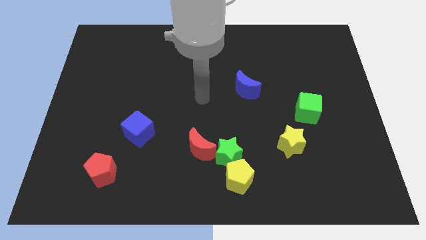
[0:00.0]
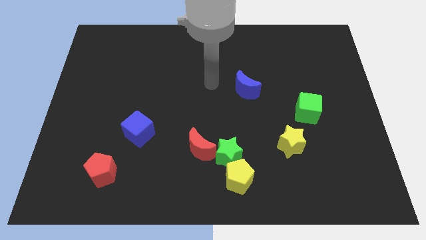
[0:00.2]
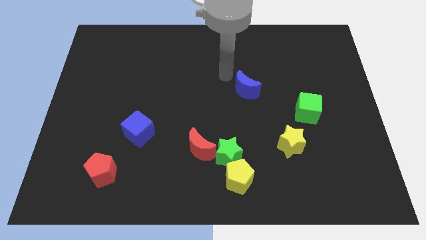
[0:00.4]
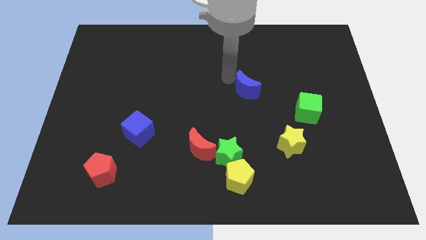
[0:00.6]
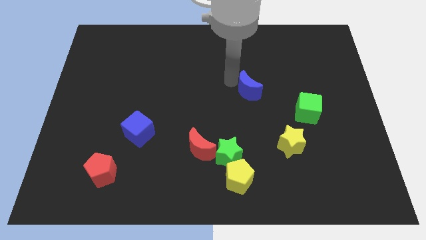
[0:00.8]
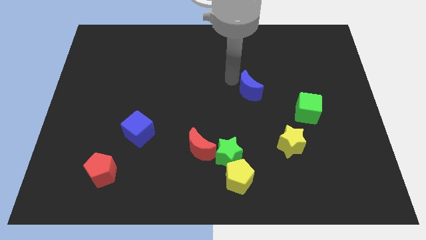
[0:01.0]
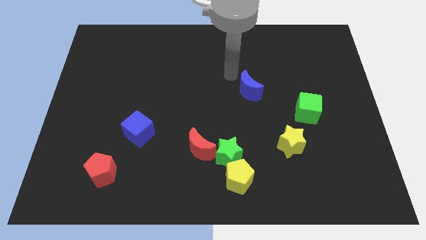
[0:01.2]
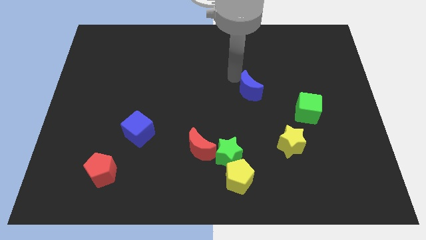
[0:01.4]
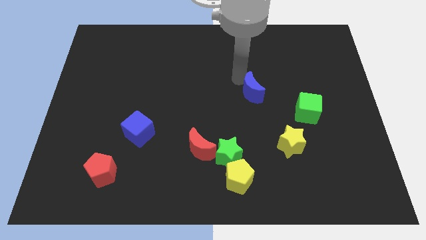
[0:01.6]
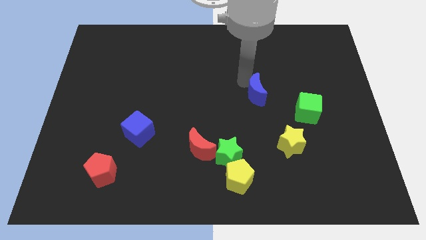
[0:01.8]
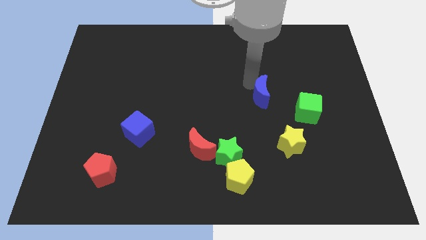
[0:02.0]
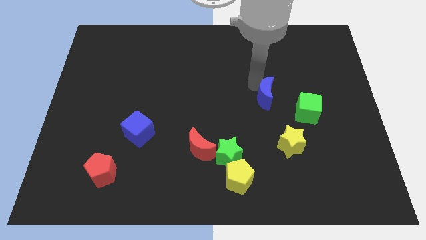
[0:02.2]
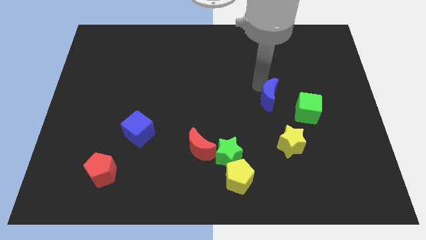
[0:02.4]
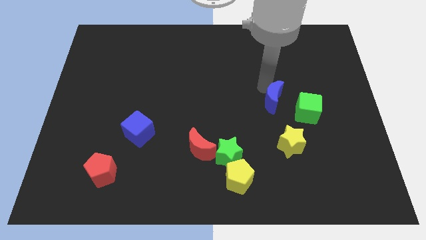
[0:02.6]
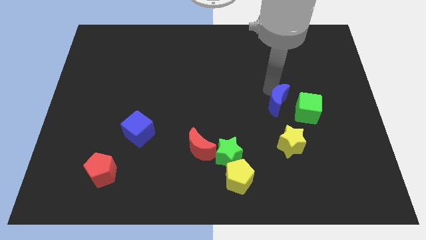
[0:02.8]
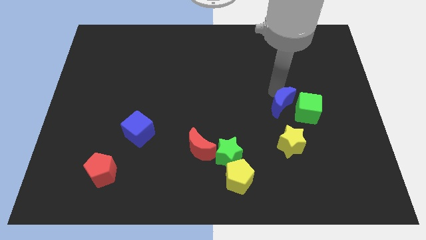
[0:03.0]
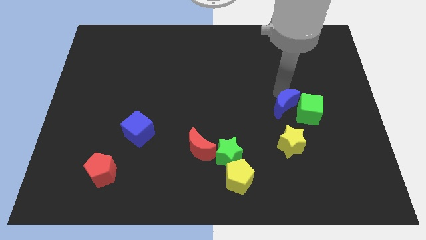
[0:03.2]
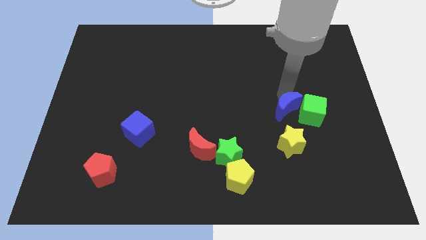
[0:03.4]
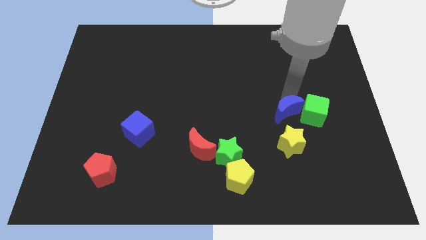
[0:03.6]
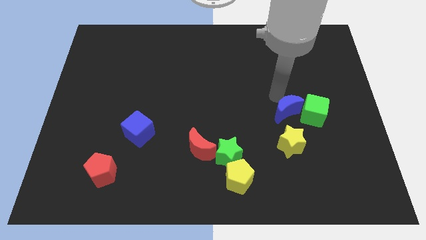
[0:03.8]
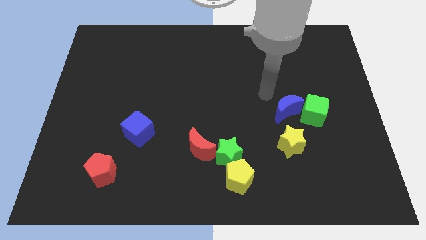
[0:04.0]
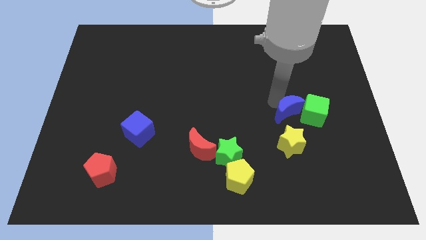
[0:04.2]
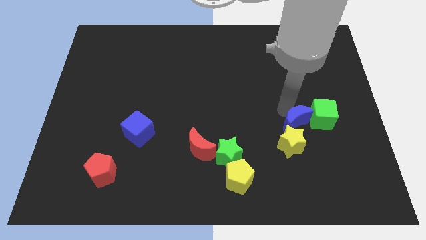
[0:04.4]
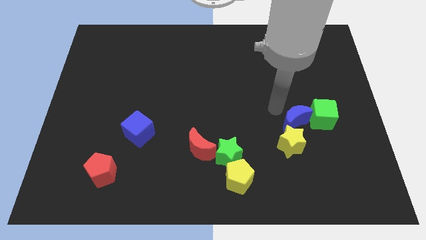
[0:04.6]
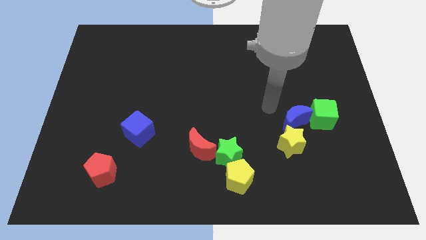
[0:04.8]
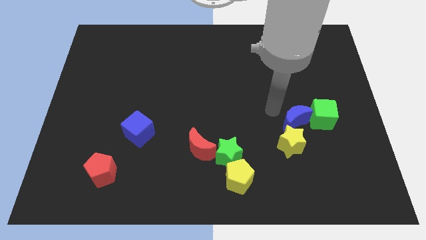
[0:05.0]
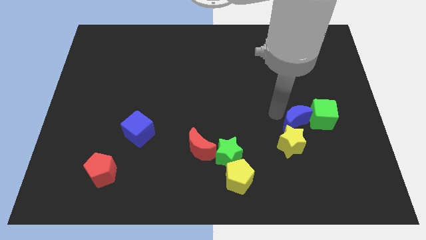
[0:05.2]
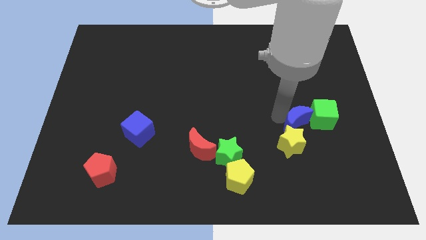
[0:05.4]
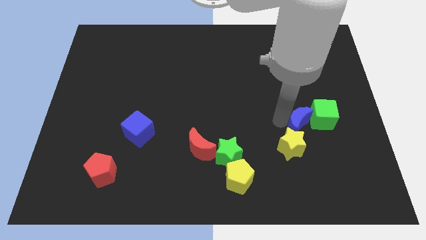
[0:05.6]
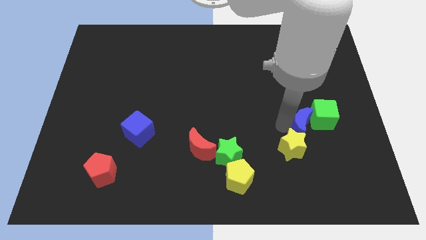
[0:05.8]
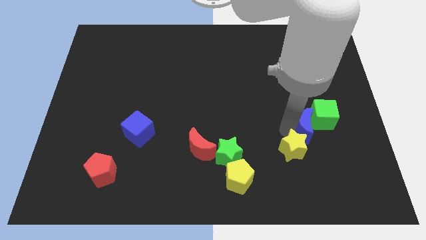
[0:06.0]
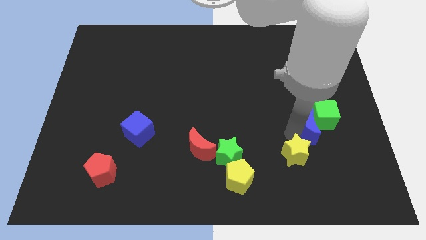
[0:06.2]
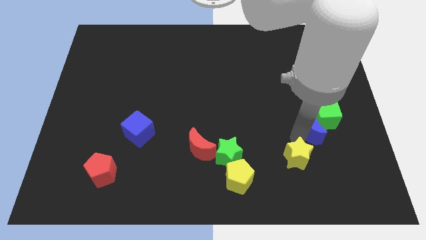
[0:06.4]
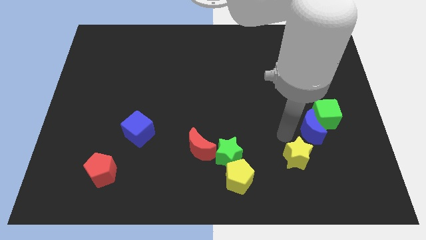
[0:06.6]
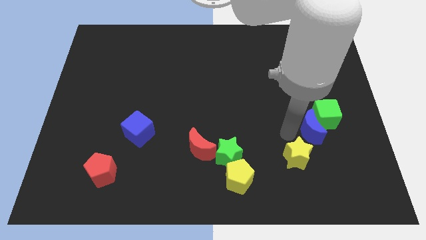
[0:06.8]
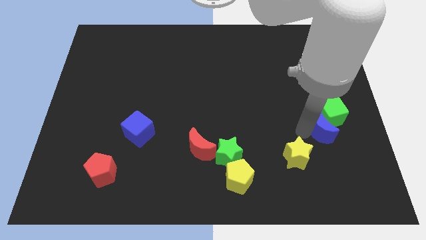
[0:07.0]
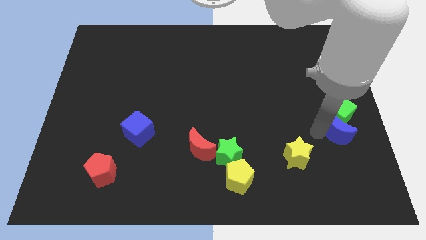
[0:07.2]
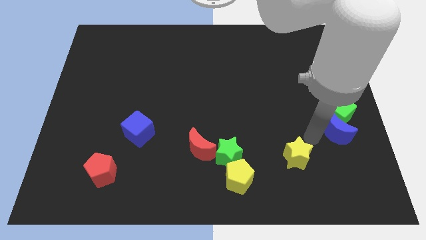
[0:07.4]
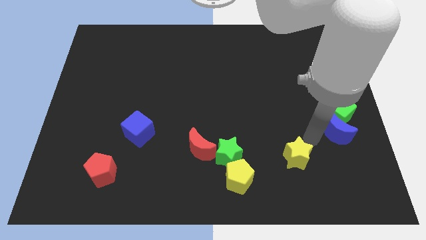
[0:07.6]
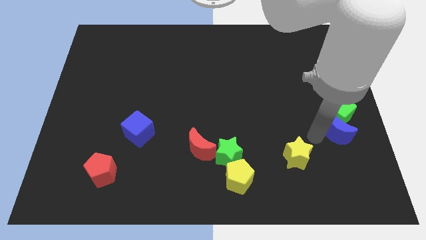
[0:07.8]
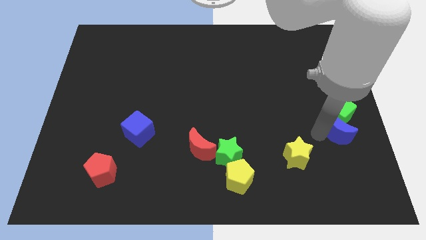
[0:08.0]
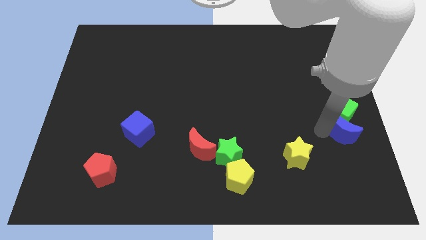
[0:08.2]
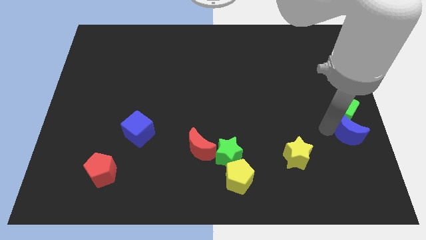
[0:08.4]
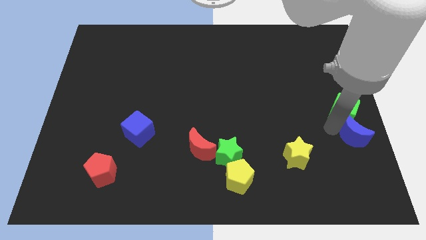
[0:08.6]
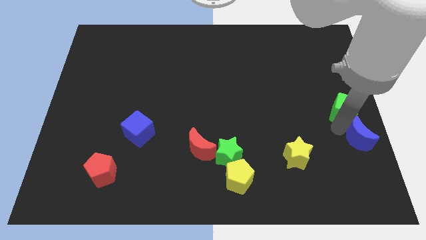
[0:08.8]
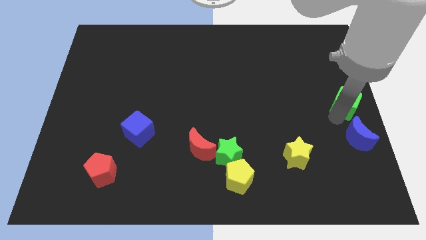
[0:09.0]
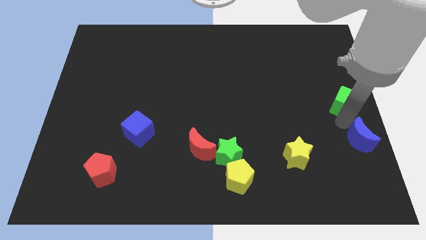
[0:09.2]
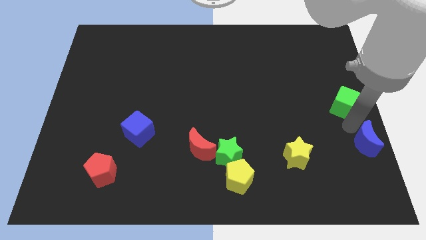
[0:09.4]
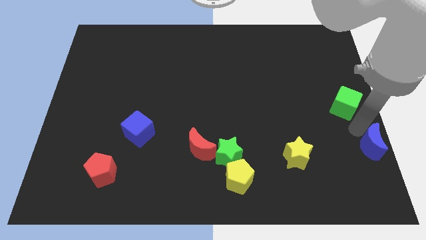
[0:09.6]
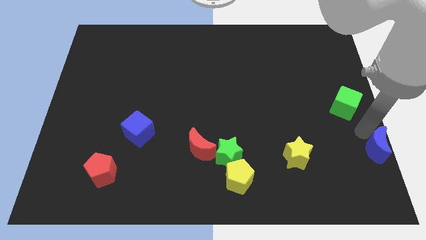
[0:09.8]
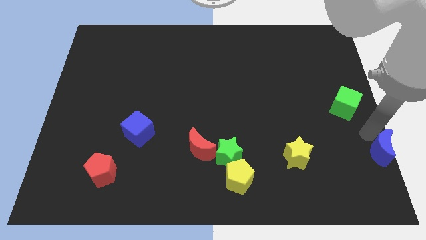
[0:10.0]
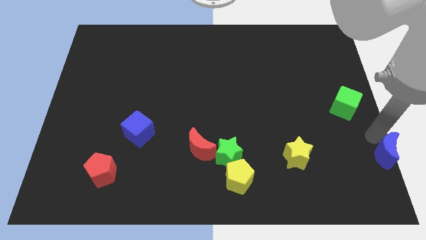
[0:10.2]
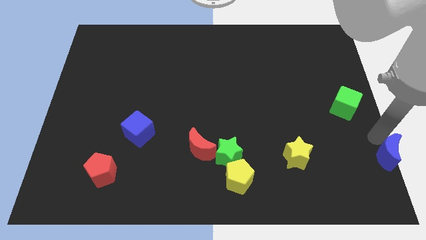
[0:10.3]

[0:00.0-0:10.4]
put the blue moon to the bottom right of the board

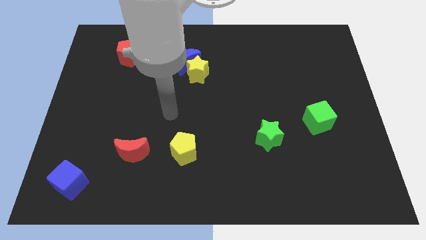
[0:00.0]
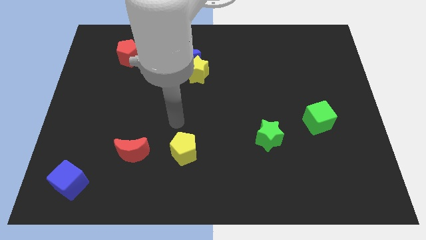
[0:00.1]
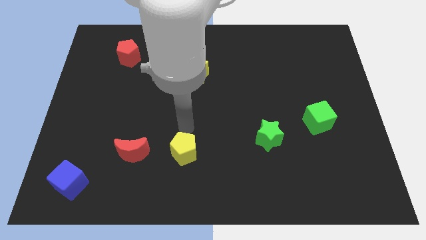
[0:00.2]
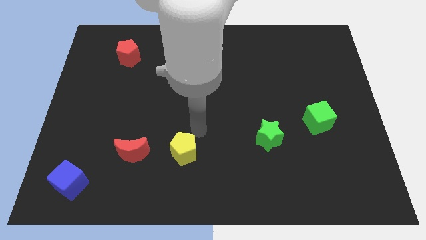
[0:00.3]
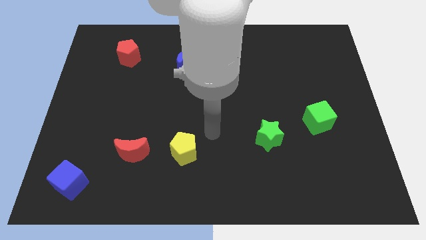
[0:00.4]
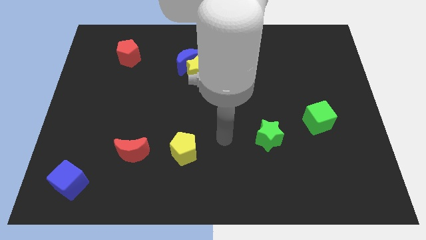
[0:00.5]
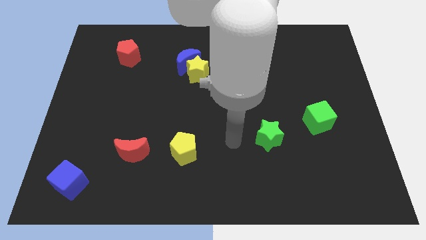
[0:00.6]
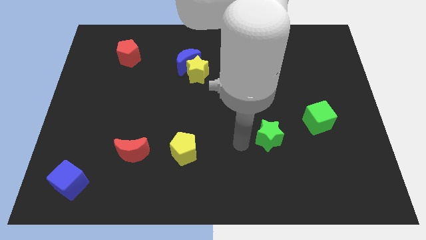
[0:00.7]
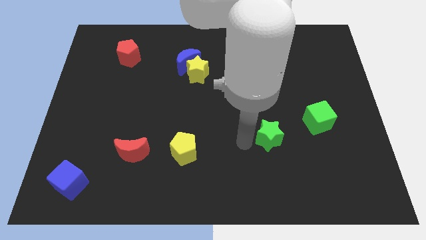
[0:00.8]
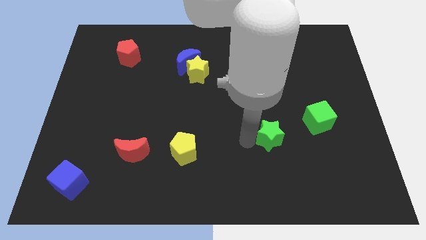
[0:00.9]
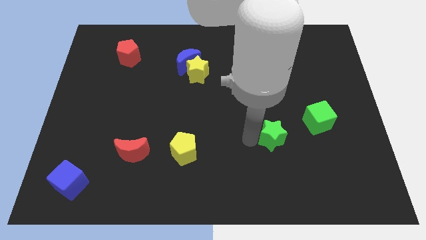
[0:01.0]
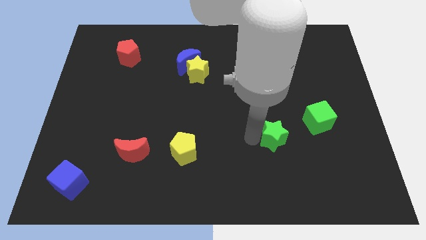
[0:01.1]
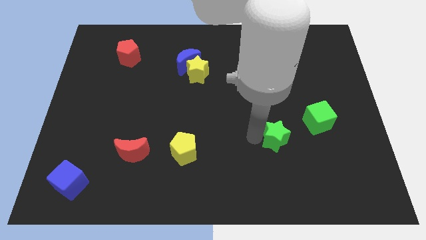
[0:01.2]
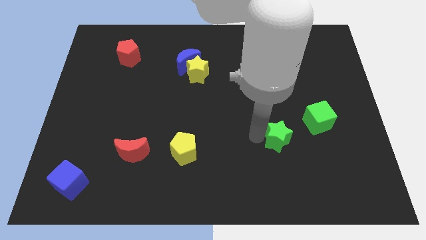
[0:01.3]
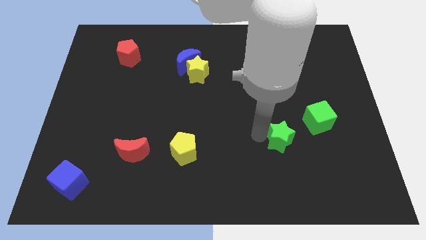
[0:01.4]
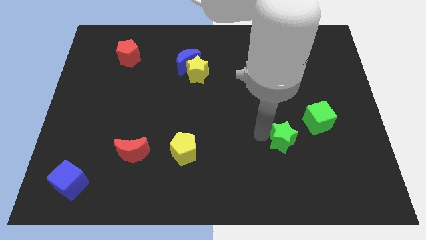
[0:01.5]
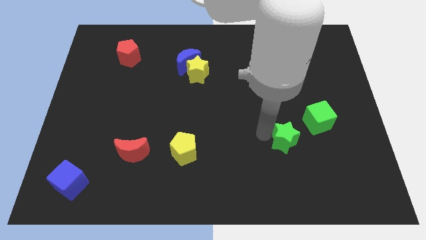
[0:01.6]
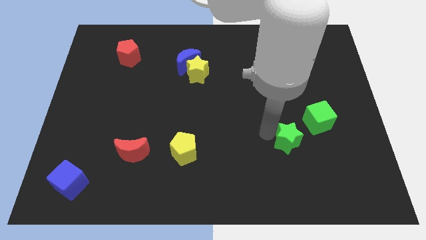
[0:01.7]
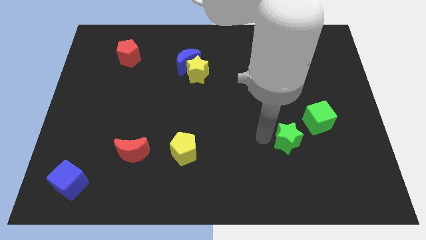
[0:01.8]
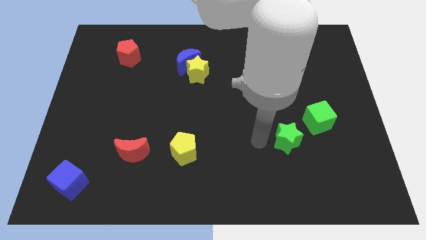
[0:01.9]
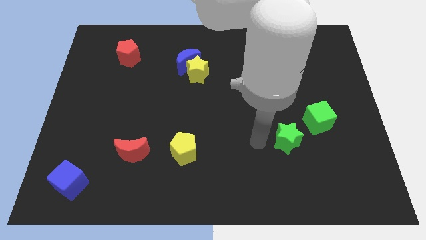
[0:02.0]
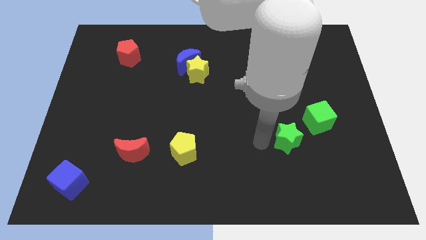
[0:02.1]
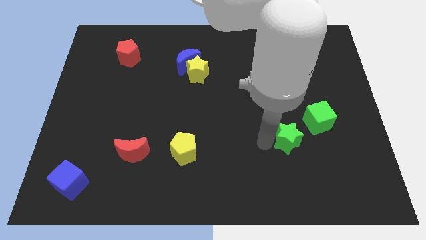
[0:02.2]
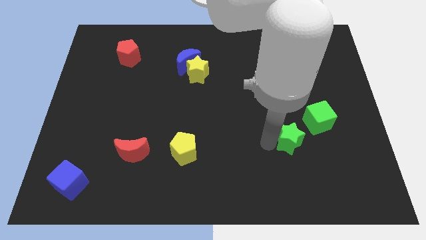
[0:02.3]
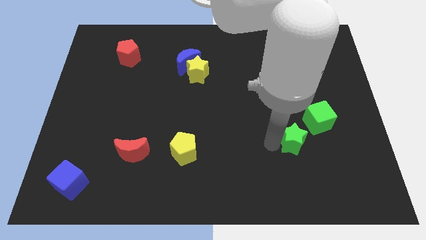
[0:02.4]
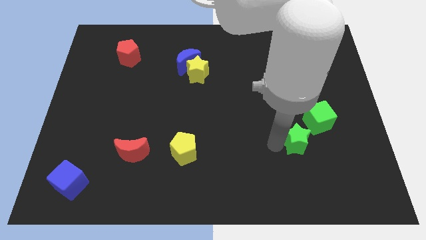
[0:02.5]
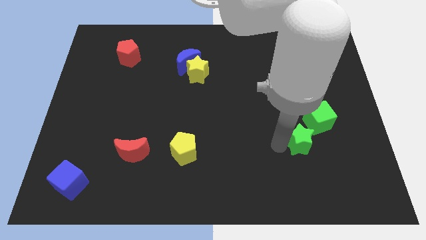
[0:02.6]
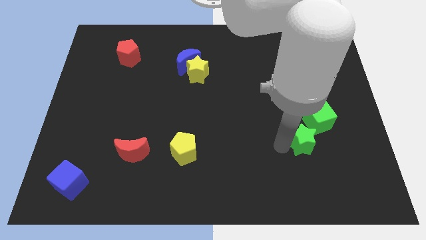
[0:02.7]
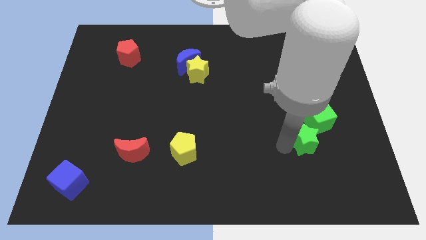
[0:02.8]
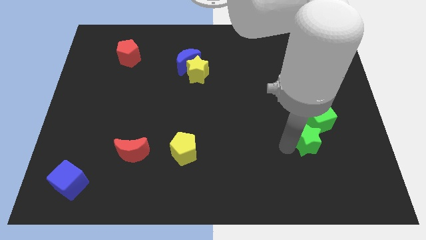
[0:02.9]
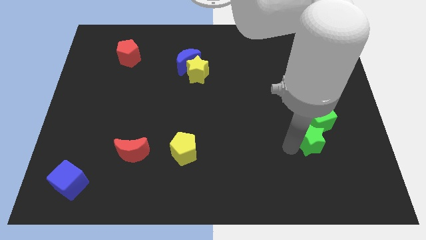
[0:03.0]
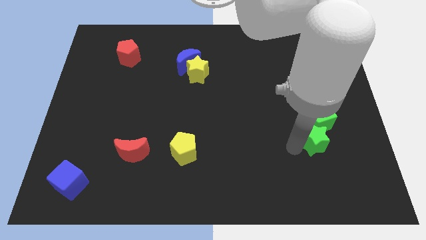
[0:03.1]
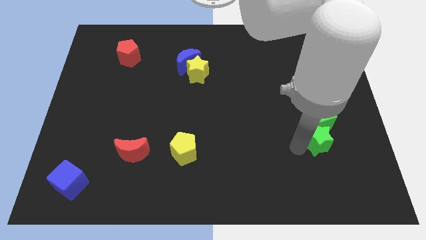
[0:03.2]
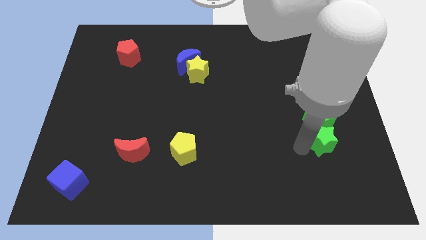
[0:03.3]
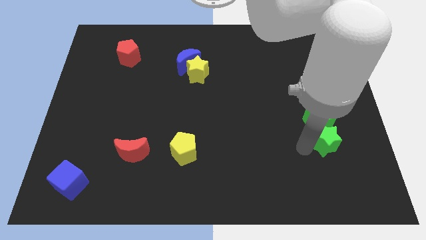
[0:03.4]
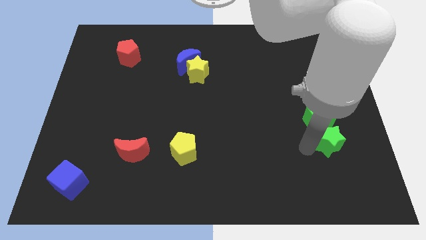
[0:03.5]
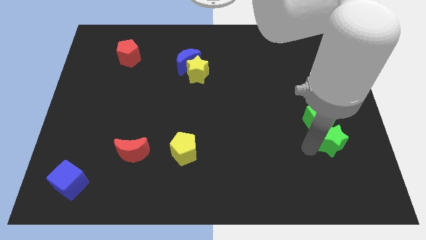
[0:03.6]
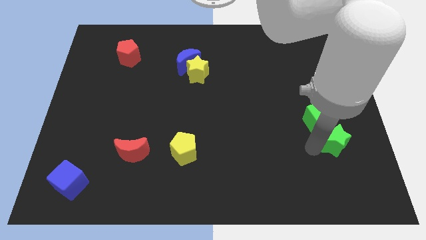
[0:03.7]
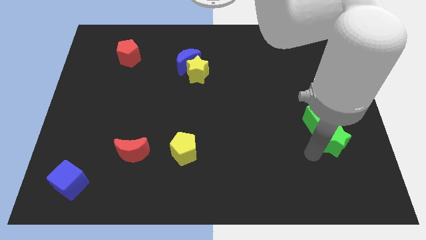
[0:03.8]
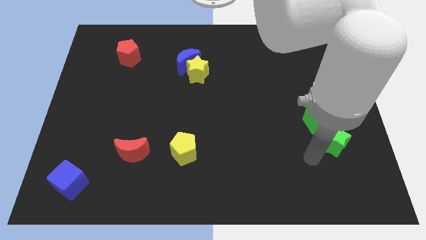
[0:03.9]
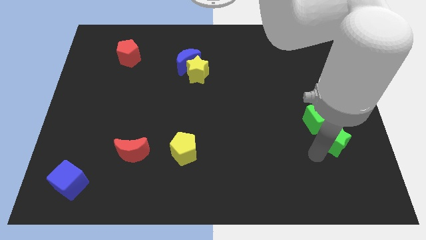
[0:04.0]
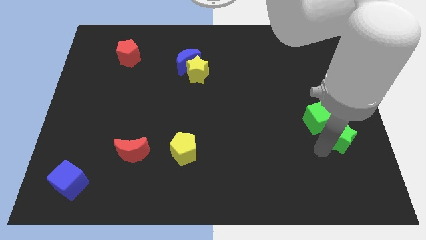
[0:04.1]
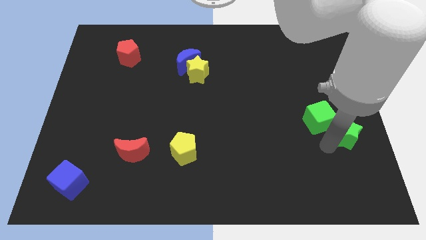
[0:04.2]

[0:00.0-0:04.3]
put the green star to the right side of the board
